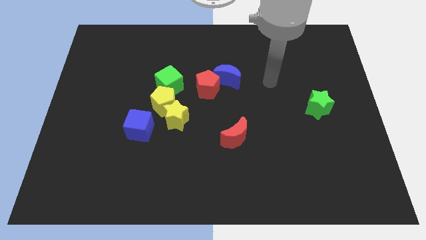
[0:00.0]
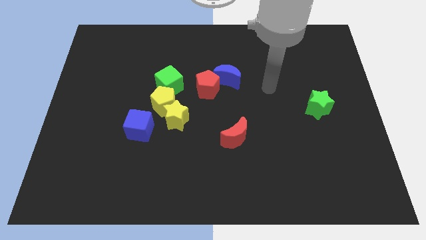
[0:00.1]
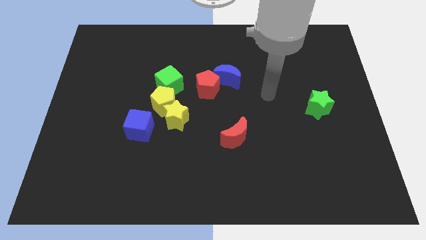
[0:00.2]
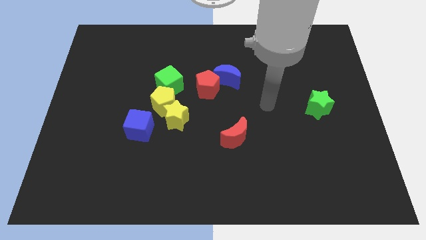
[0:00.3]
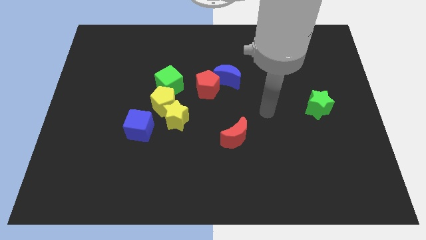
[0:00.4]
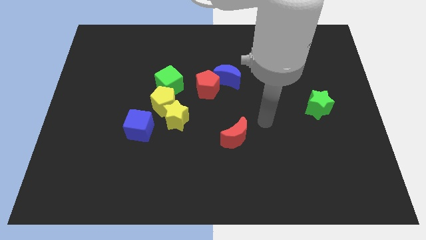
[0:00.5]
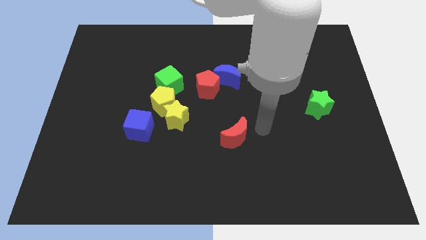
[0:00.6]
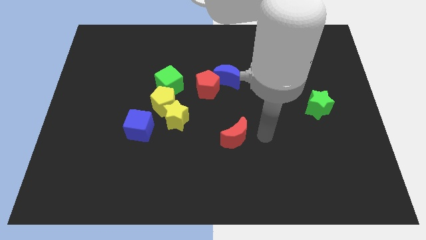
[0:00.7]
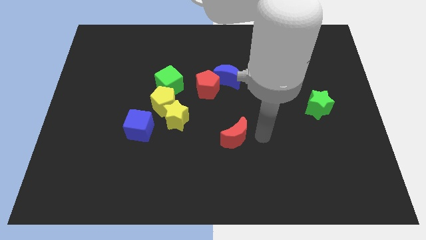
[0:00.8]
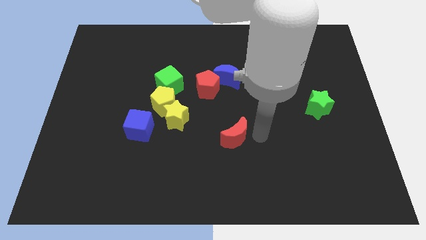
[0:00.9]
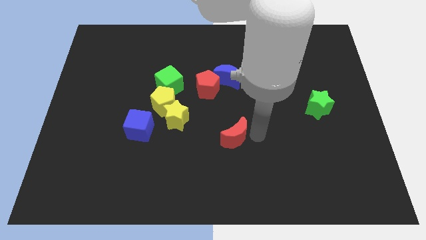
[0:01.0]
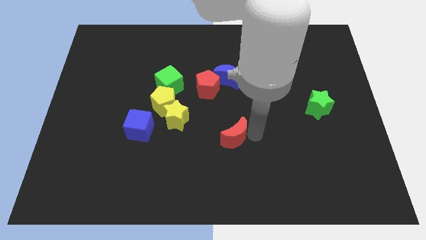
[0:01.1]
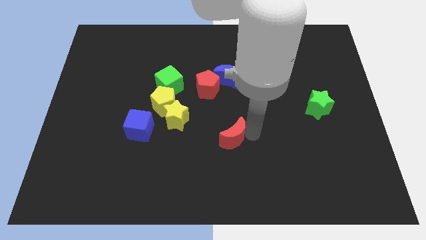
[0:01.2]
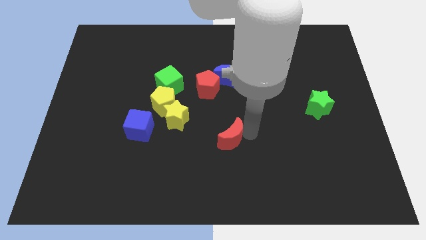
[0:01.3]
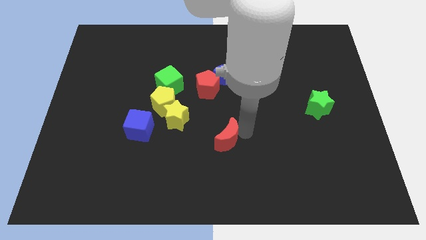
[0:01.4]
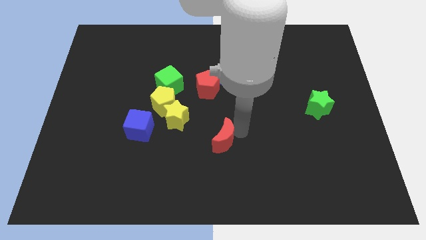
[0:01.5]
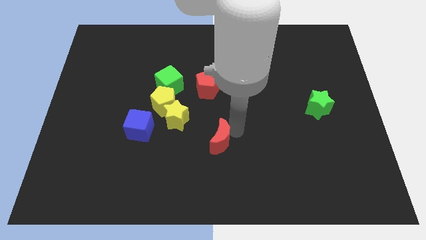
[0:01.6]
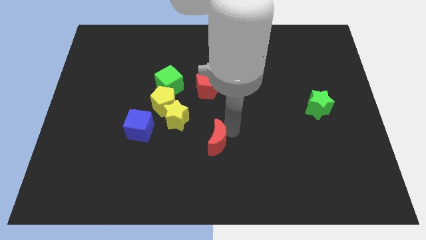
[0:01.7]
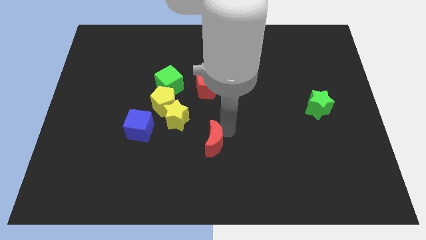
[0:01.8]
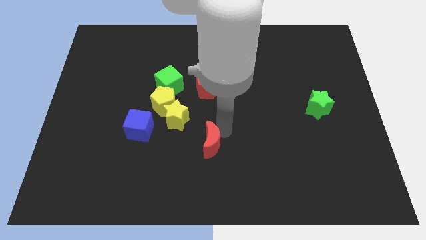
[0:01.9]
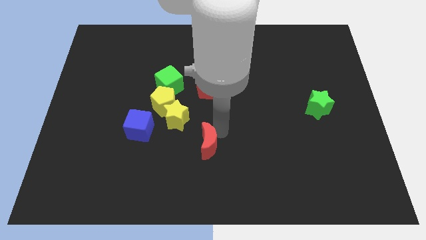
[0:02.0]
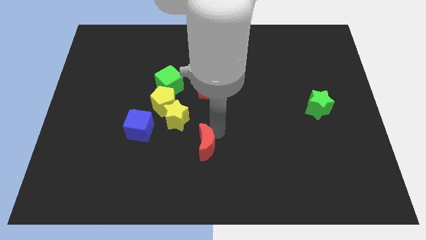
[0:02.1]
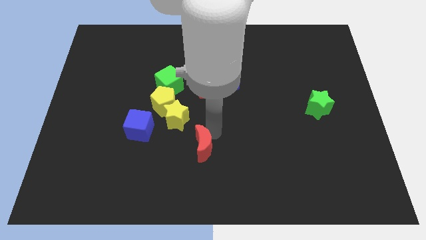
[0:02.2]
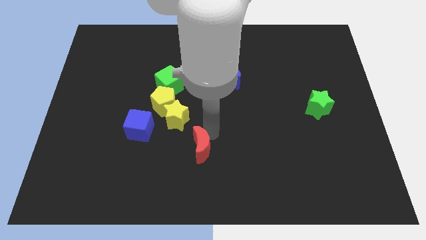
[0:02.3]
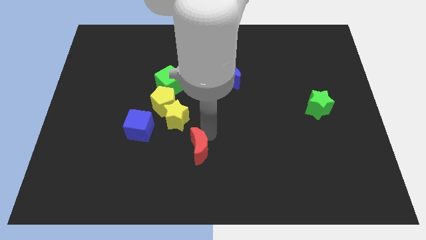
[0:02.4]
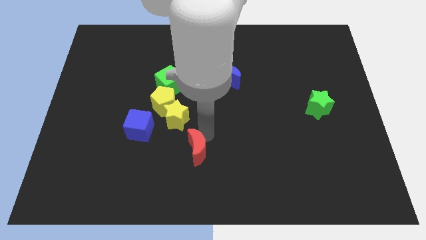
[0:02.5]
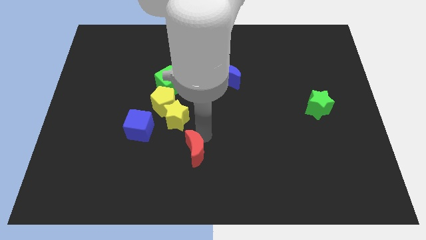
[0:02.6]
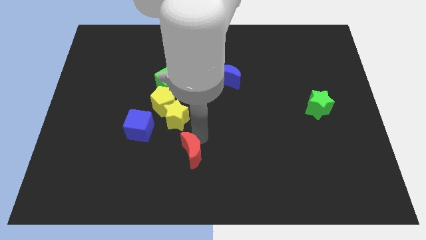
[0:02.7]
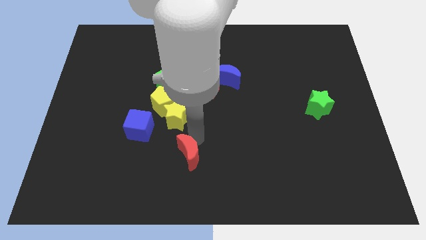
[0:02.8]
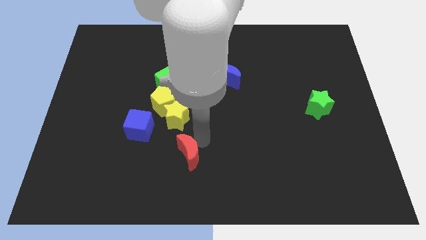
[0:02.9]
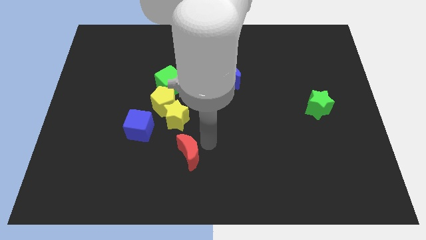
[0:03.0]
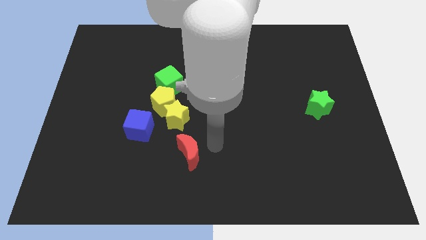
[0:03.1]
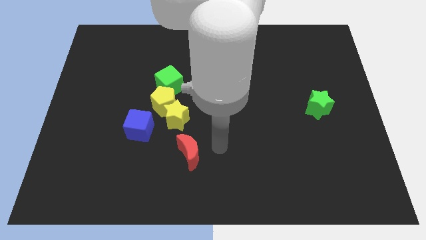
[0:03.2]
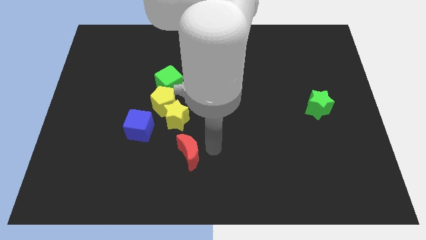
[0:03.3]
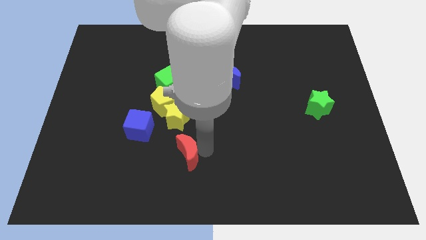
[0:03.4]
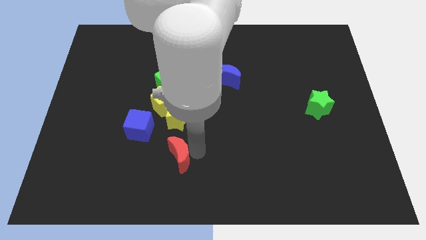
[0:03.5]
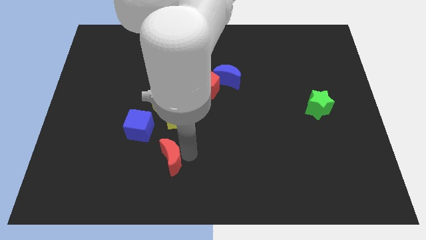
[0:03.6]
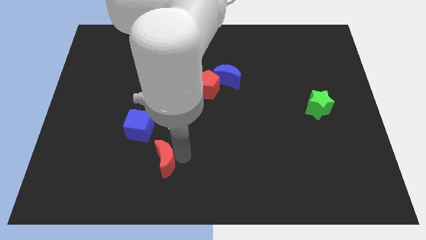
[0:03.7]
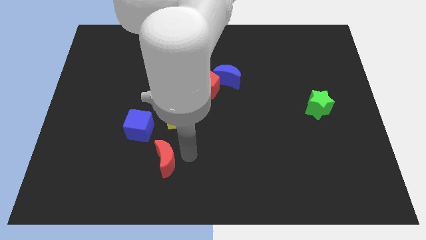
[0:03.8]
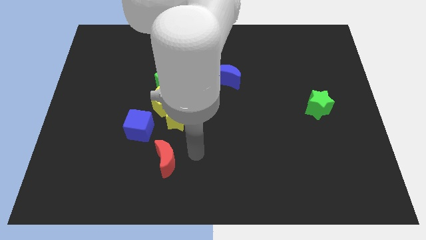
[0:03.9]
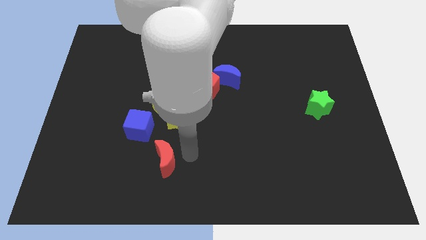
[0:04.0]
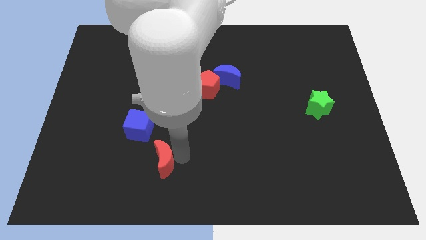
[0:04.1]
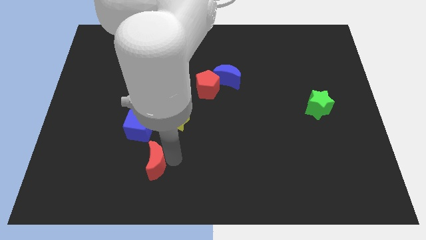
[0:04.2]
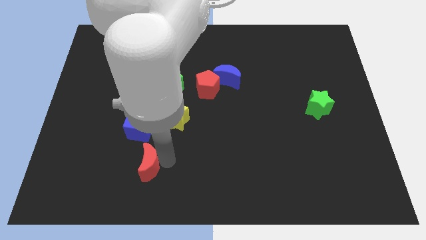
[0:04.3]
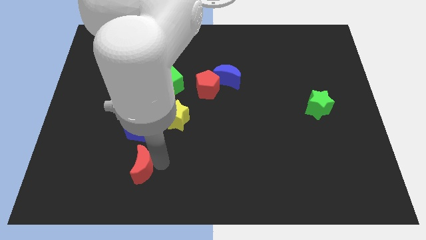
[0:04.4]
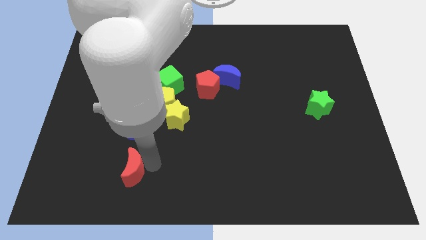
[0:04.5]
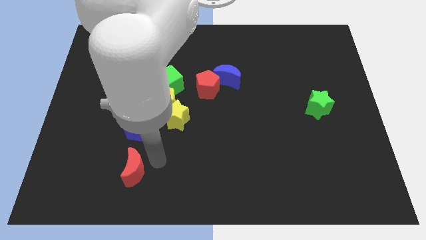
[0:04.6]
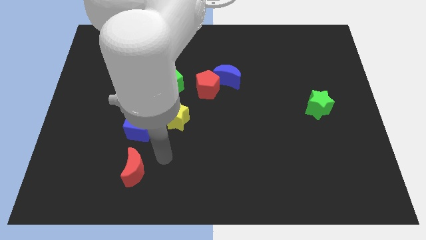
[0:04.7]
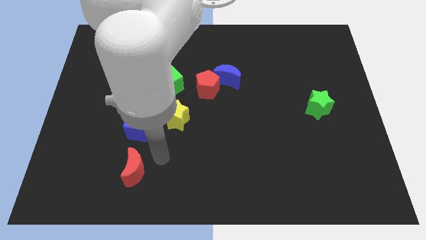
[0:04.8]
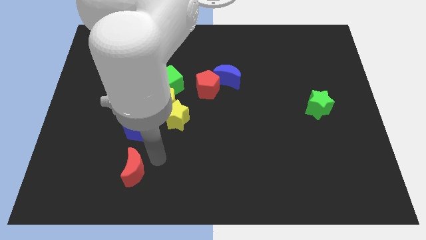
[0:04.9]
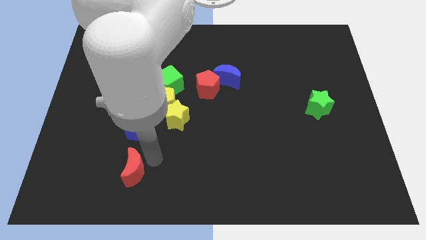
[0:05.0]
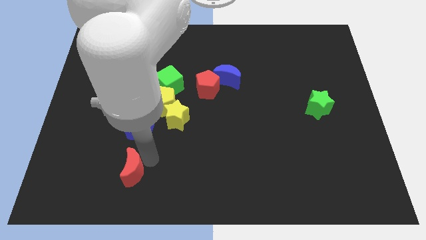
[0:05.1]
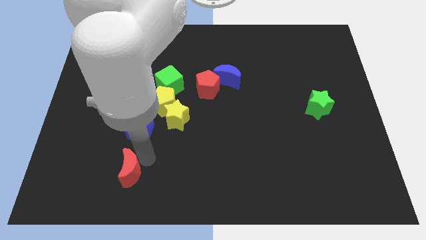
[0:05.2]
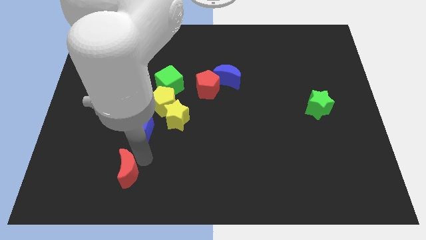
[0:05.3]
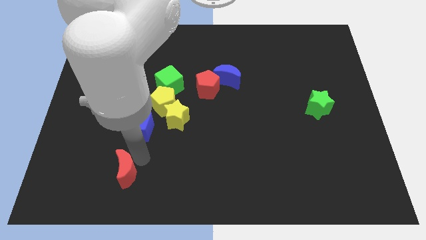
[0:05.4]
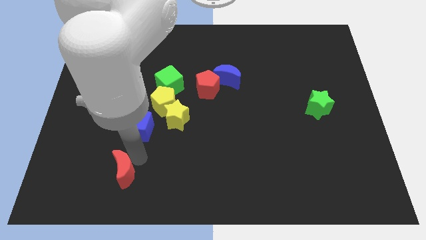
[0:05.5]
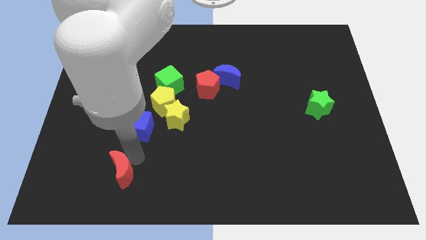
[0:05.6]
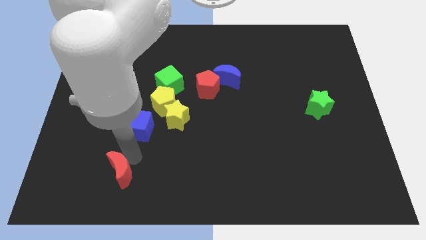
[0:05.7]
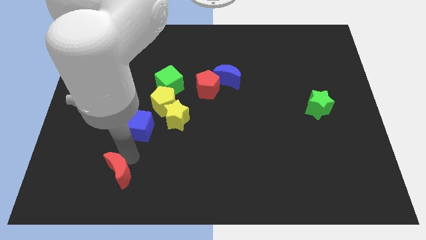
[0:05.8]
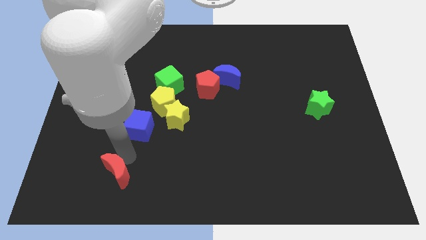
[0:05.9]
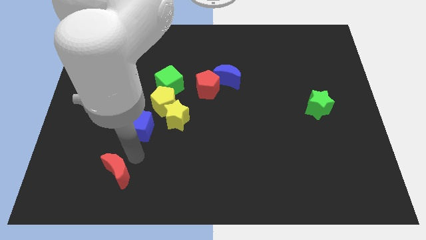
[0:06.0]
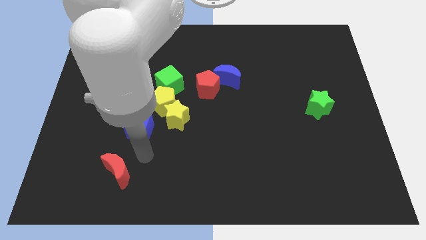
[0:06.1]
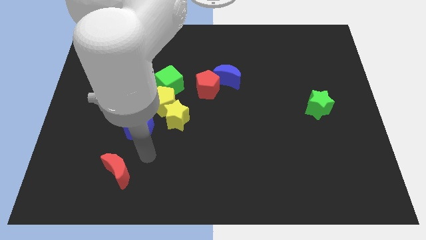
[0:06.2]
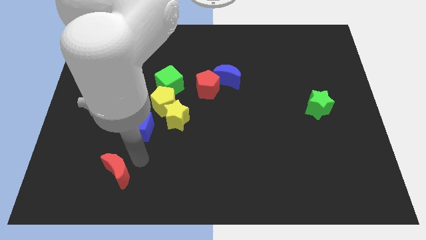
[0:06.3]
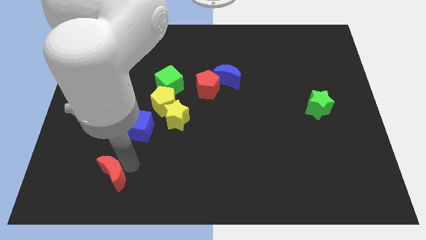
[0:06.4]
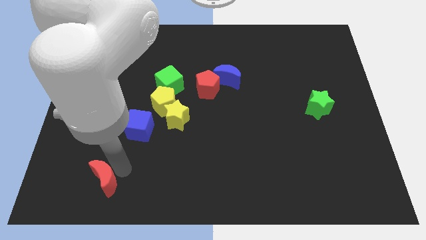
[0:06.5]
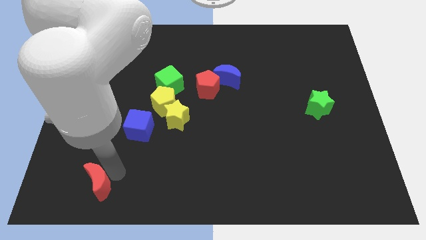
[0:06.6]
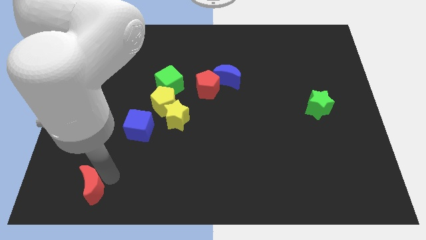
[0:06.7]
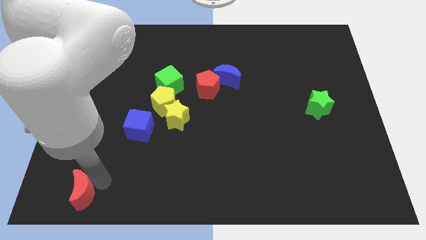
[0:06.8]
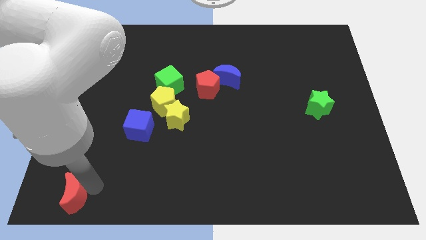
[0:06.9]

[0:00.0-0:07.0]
move the red moon to the bottom left of the board
